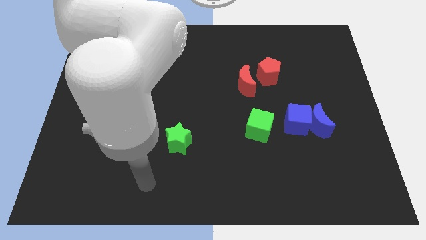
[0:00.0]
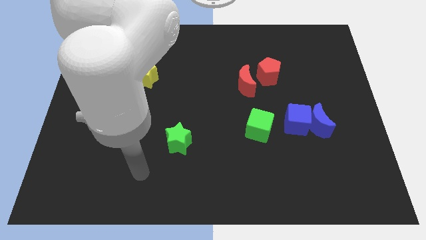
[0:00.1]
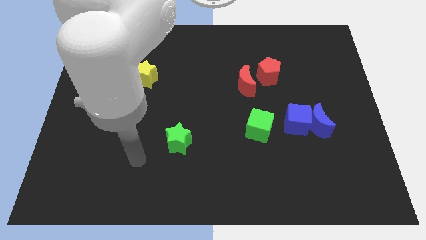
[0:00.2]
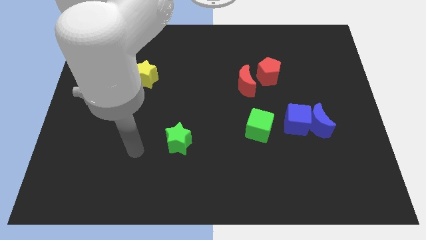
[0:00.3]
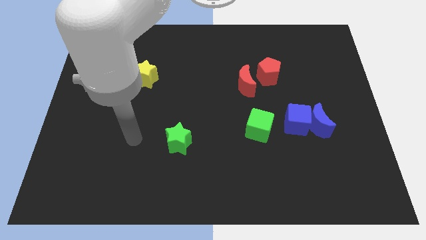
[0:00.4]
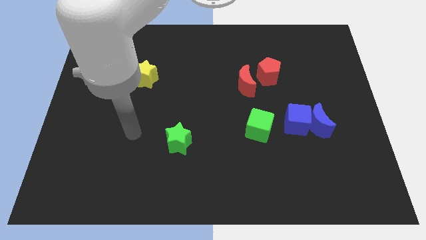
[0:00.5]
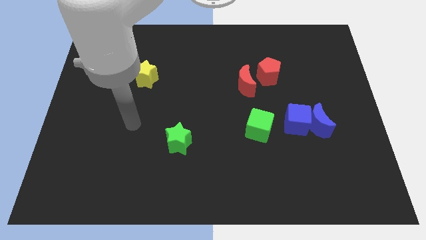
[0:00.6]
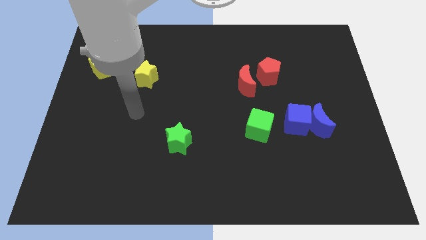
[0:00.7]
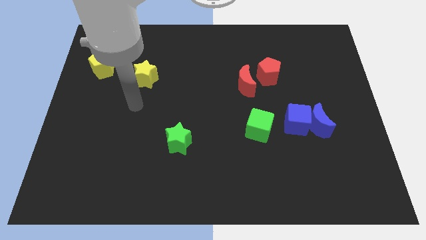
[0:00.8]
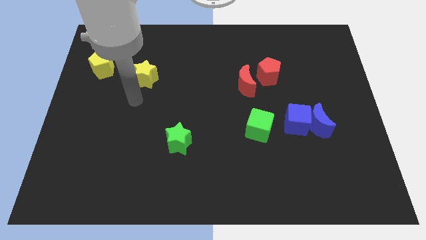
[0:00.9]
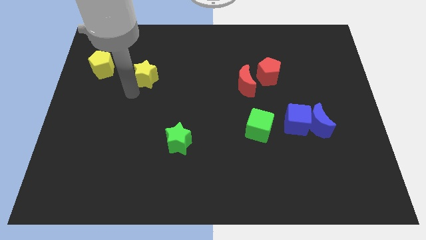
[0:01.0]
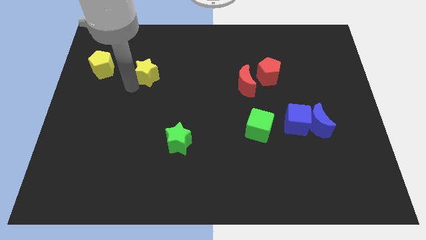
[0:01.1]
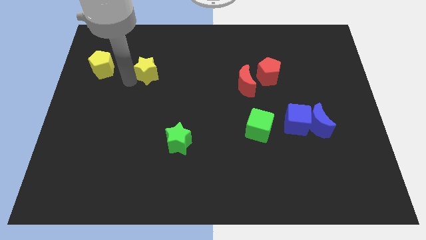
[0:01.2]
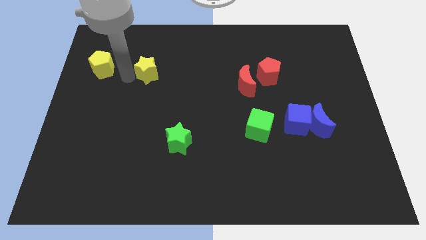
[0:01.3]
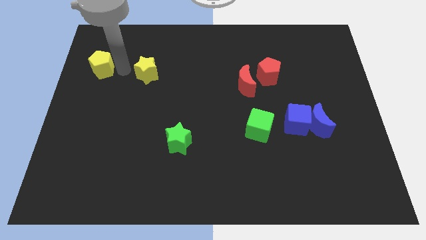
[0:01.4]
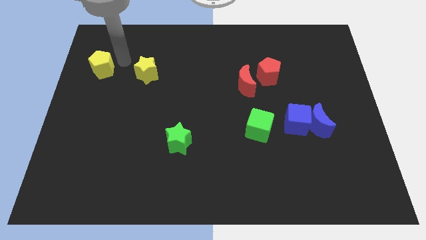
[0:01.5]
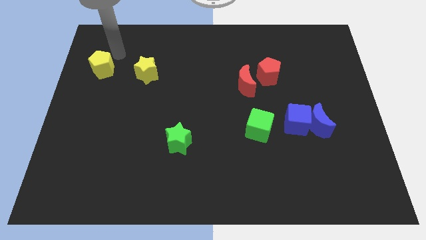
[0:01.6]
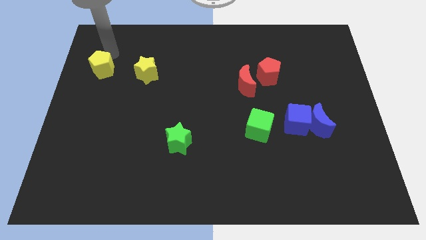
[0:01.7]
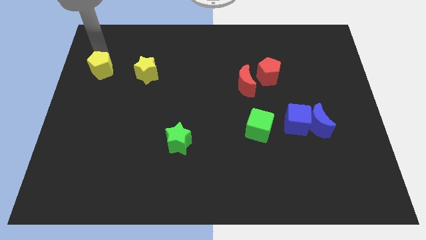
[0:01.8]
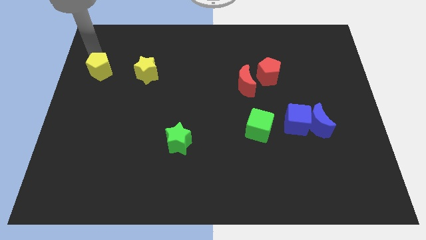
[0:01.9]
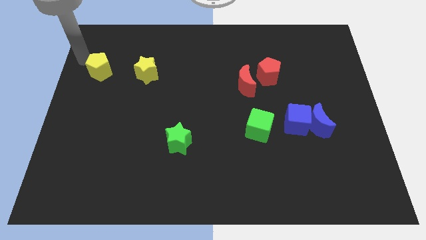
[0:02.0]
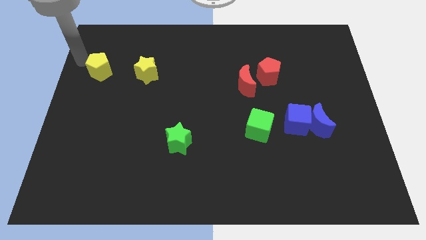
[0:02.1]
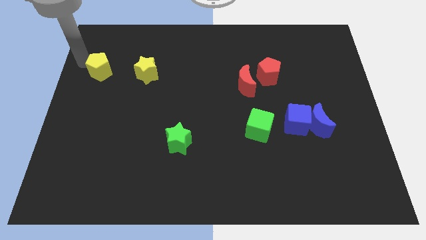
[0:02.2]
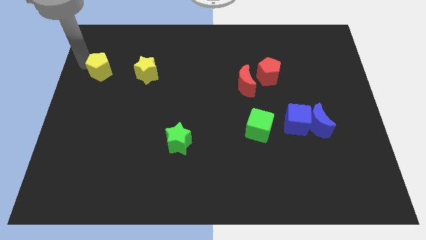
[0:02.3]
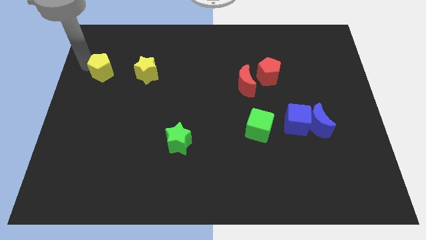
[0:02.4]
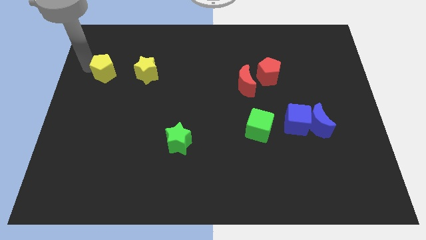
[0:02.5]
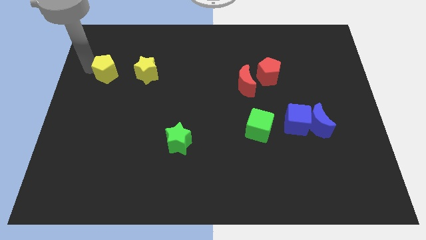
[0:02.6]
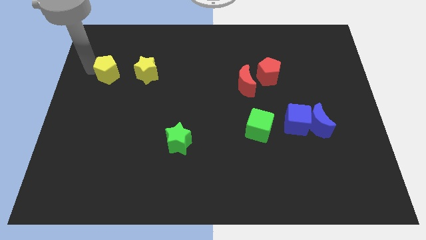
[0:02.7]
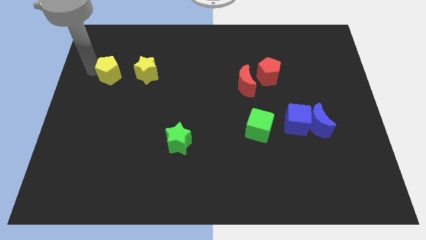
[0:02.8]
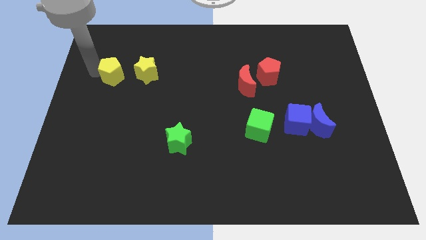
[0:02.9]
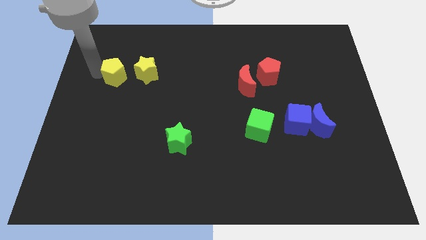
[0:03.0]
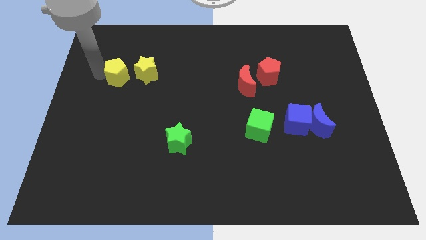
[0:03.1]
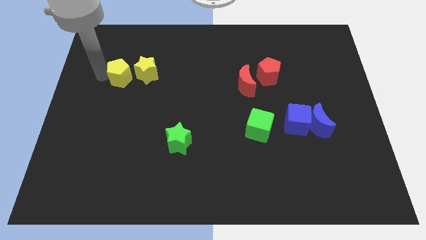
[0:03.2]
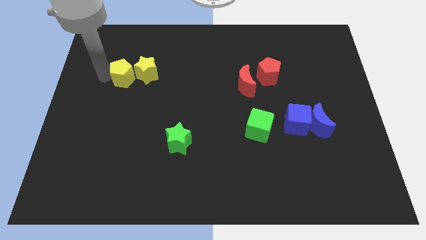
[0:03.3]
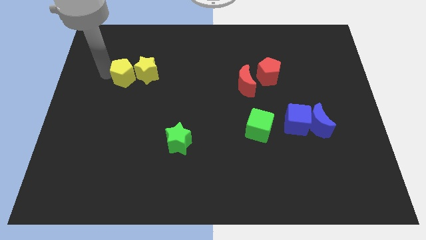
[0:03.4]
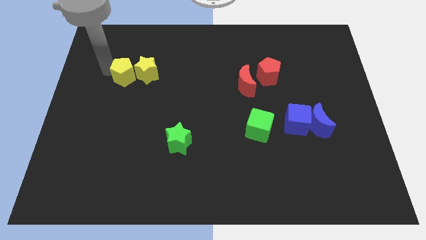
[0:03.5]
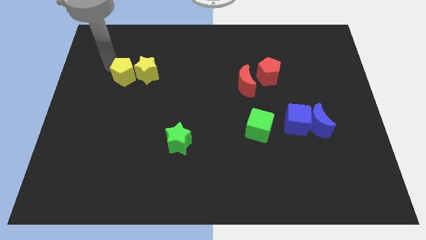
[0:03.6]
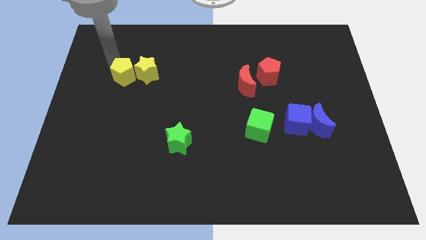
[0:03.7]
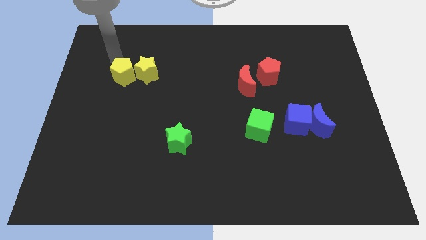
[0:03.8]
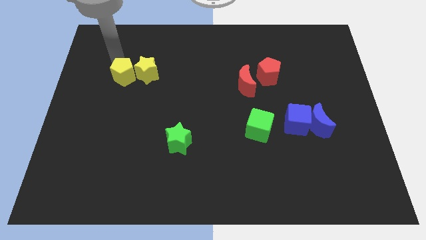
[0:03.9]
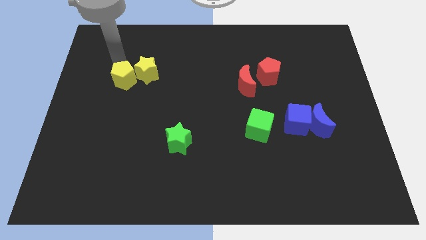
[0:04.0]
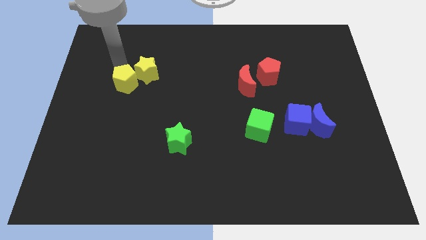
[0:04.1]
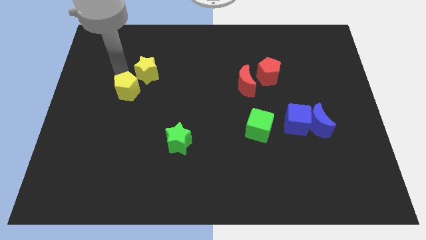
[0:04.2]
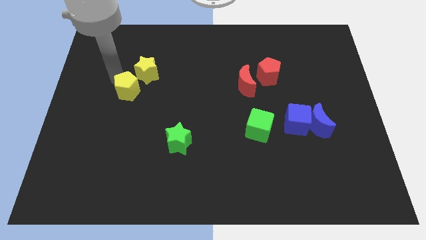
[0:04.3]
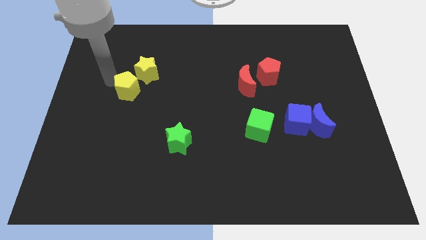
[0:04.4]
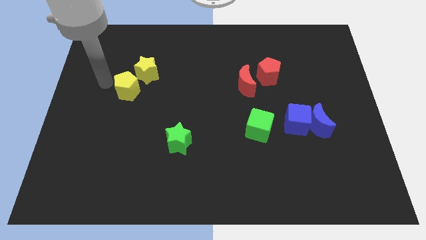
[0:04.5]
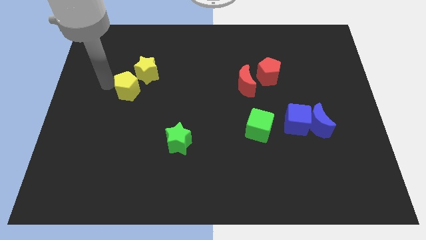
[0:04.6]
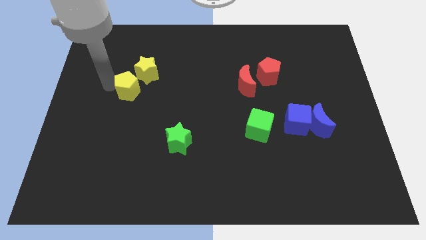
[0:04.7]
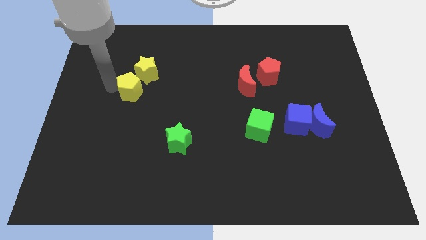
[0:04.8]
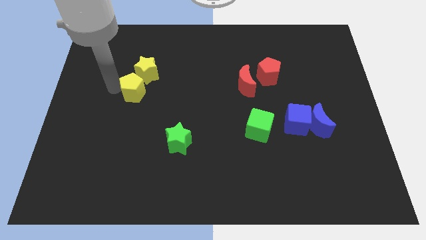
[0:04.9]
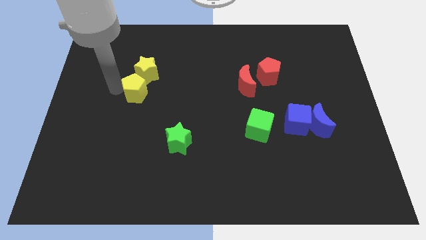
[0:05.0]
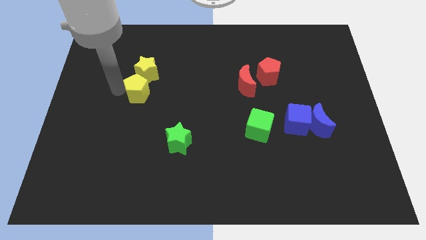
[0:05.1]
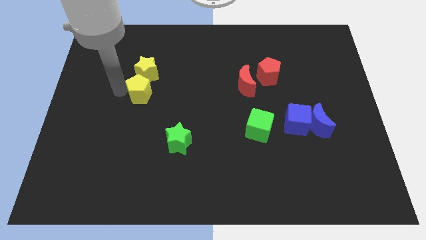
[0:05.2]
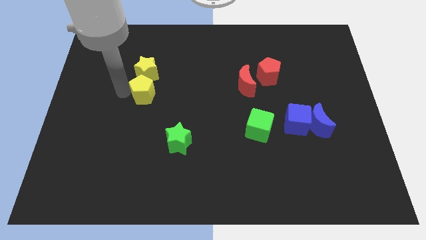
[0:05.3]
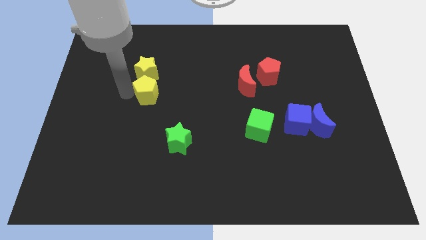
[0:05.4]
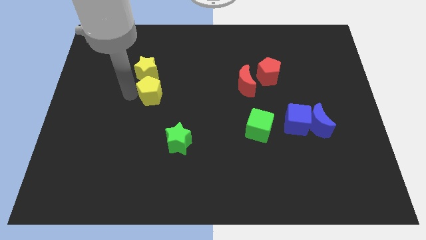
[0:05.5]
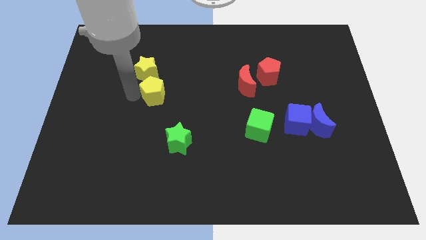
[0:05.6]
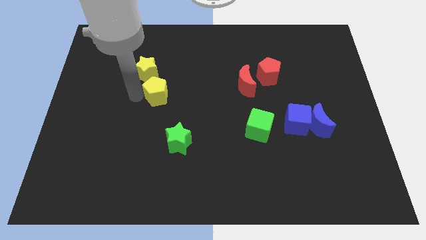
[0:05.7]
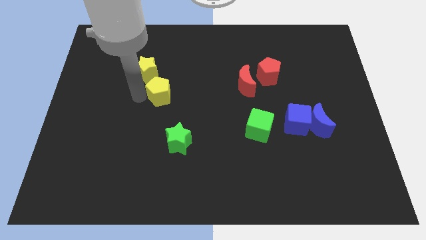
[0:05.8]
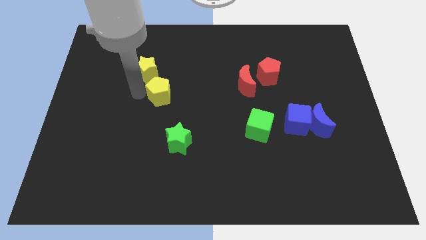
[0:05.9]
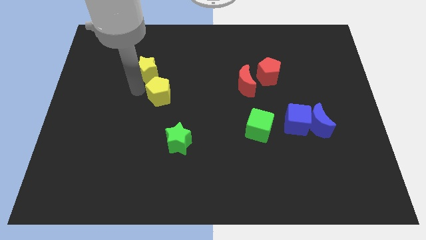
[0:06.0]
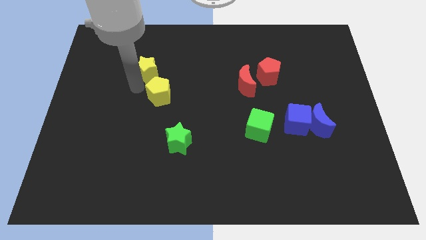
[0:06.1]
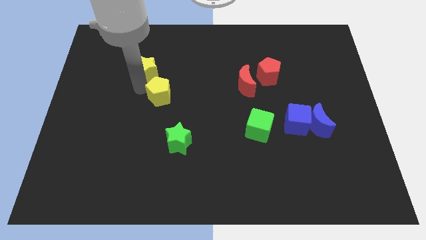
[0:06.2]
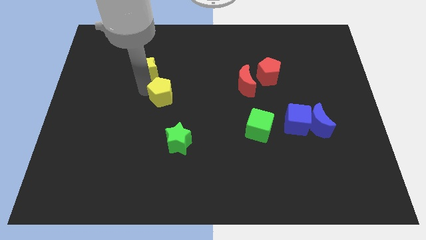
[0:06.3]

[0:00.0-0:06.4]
push the yellow pentagon to the center

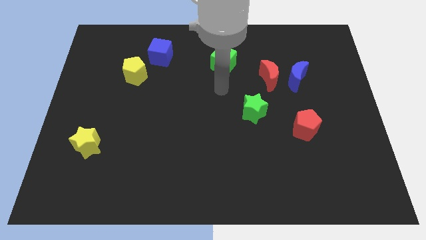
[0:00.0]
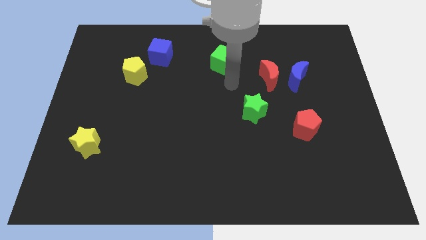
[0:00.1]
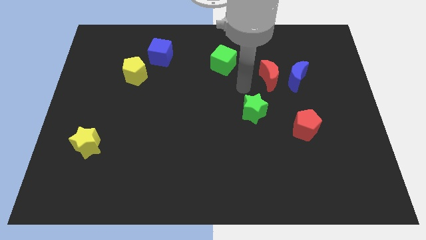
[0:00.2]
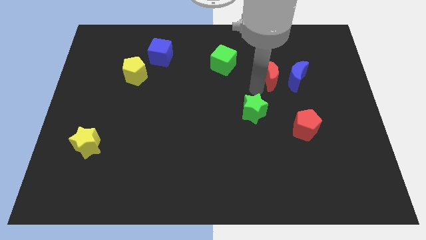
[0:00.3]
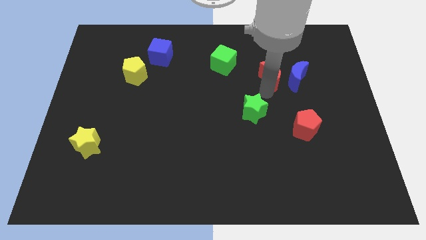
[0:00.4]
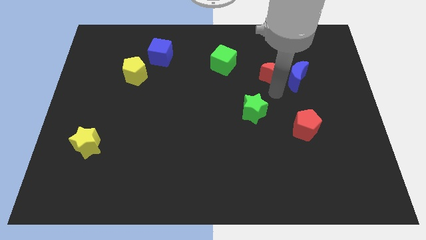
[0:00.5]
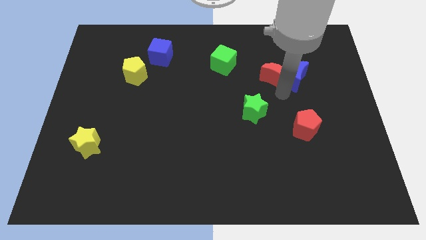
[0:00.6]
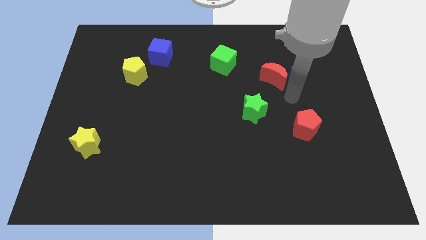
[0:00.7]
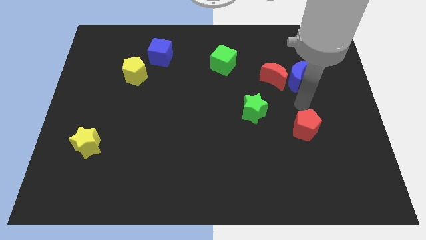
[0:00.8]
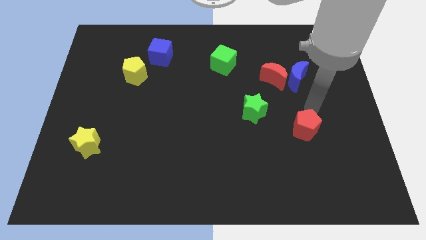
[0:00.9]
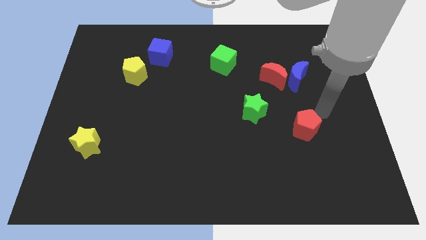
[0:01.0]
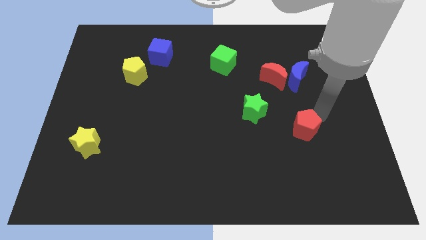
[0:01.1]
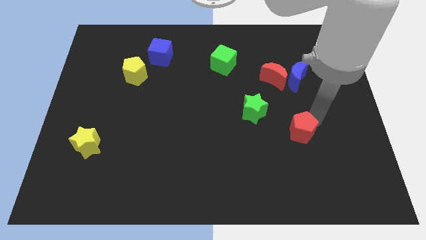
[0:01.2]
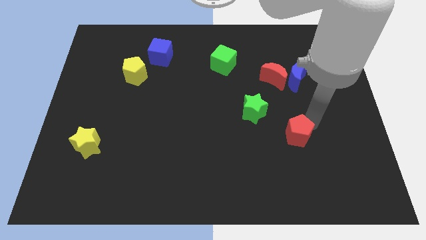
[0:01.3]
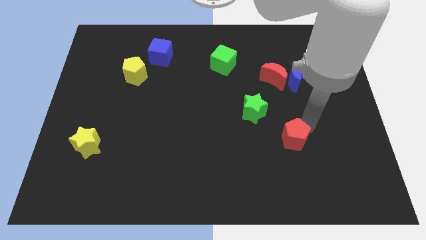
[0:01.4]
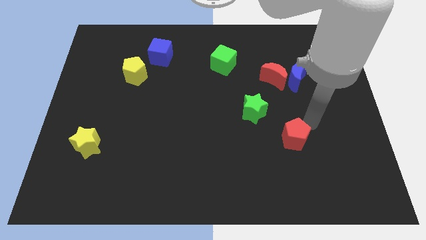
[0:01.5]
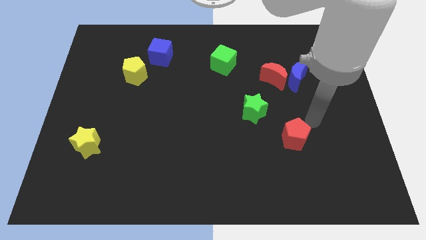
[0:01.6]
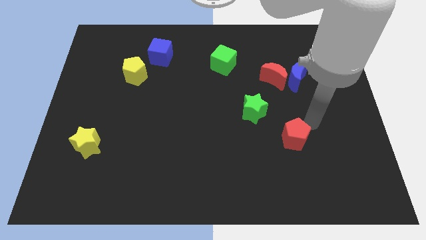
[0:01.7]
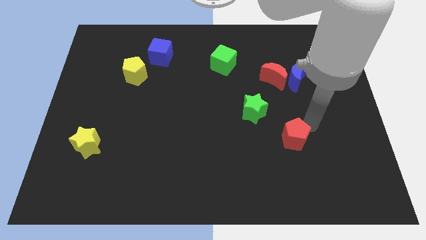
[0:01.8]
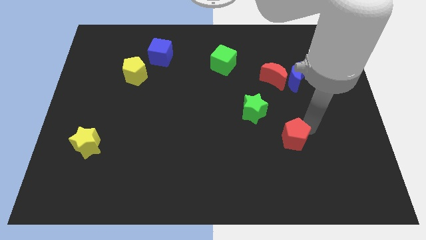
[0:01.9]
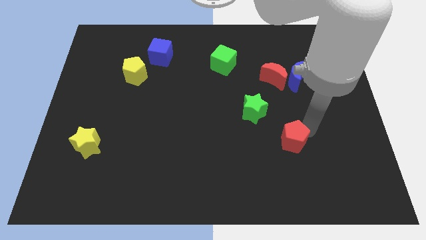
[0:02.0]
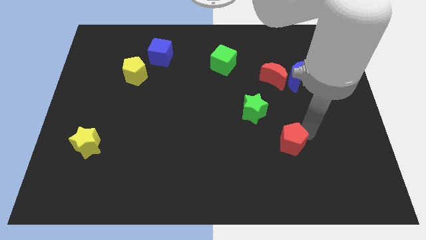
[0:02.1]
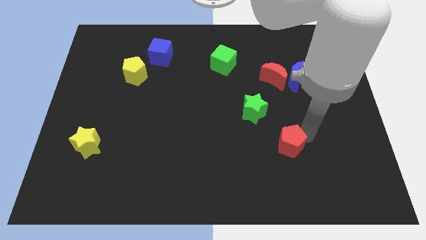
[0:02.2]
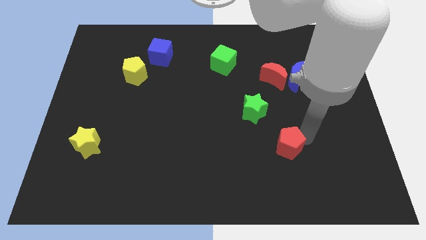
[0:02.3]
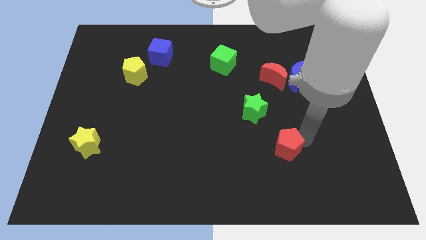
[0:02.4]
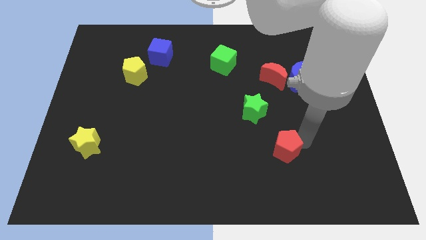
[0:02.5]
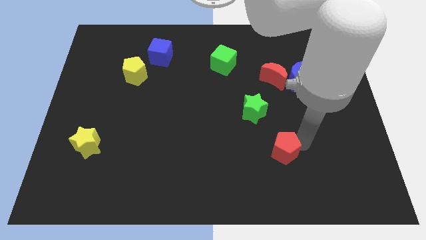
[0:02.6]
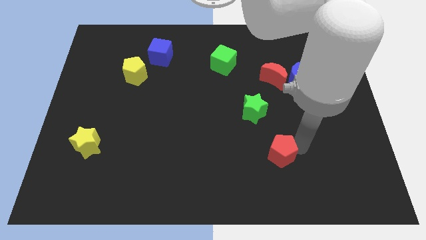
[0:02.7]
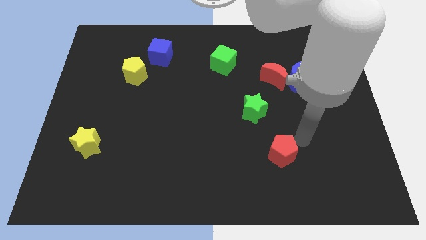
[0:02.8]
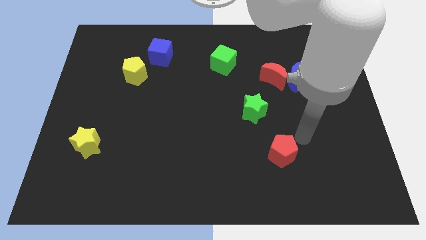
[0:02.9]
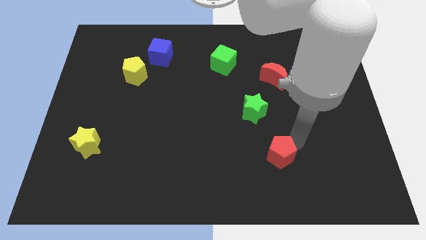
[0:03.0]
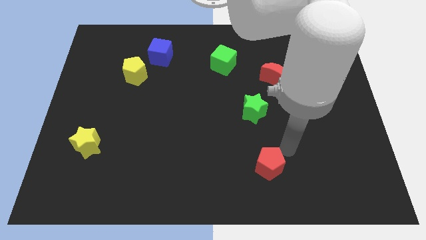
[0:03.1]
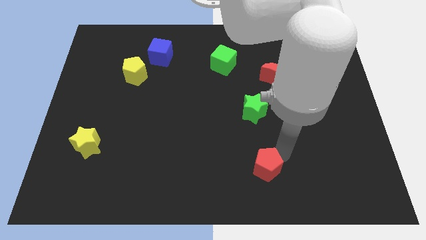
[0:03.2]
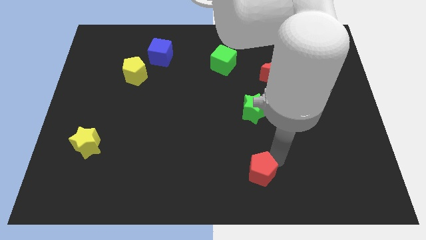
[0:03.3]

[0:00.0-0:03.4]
put the red pentagon to the bottom
